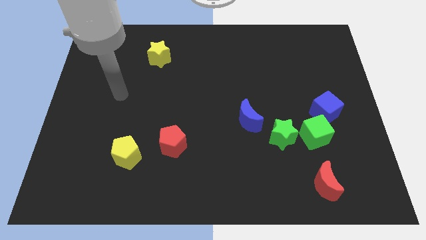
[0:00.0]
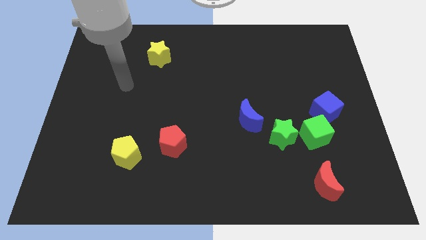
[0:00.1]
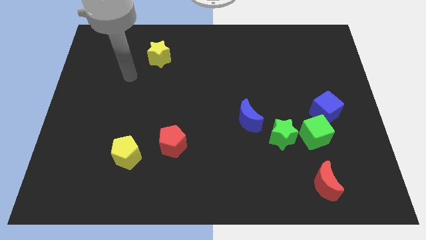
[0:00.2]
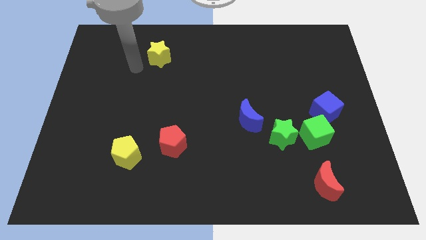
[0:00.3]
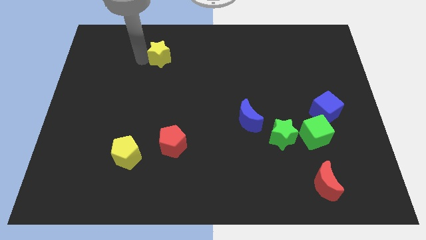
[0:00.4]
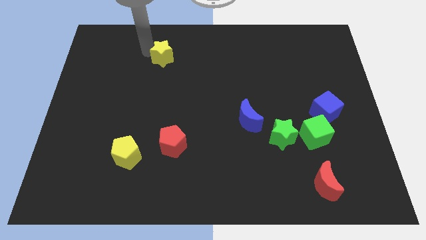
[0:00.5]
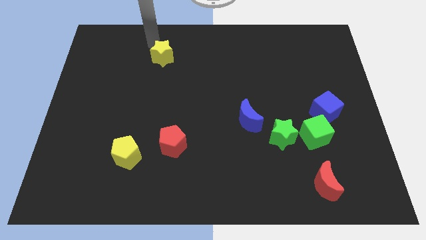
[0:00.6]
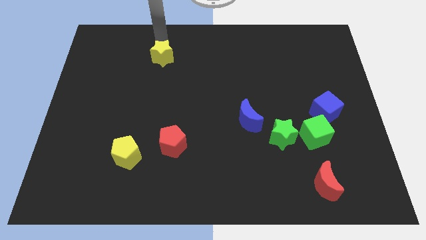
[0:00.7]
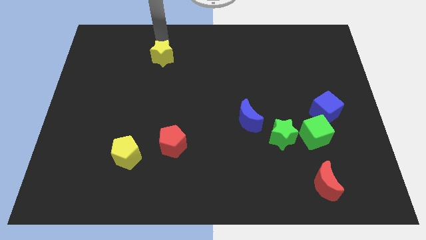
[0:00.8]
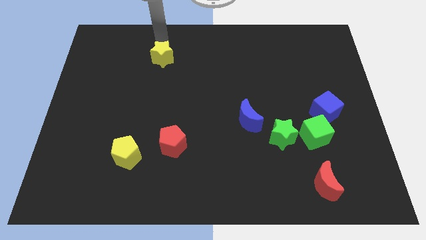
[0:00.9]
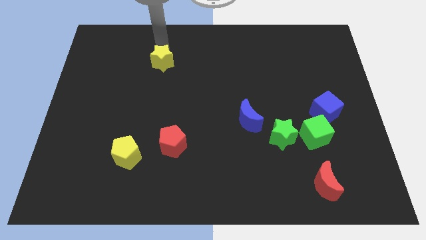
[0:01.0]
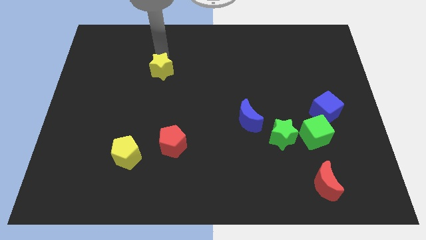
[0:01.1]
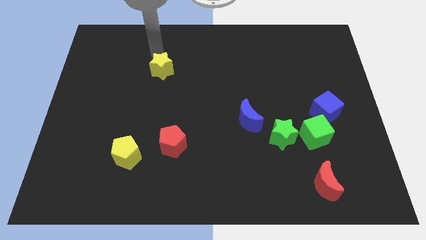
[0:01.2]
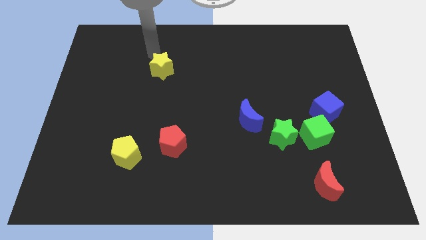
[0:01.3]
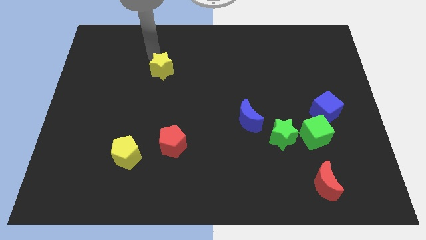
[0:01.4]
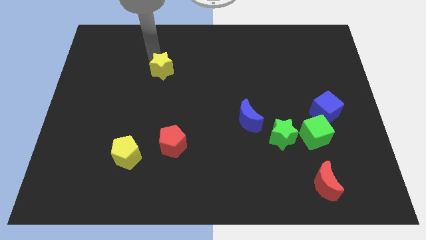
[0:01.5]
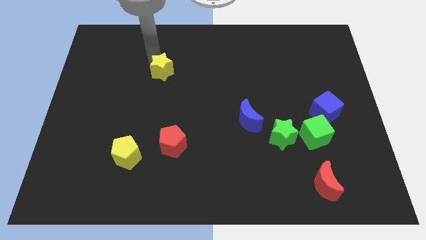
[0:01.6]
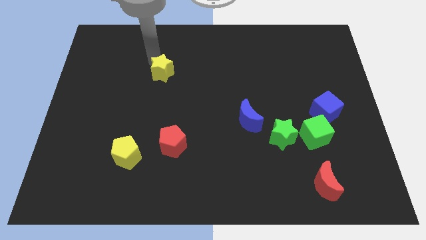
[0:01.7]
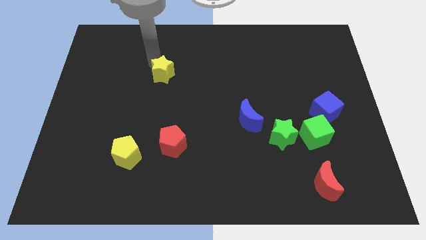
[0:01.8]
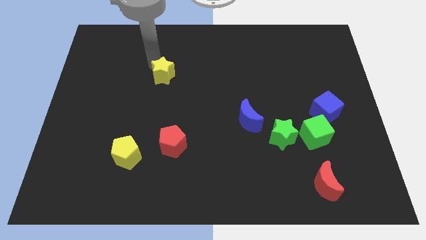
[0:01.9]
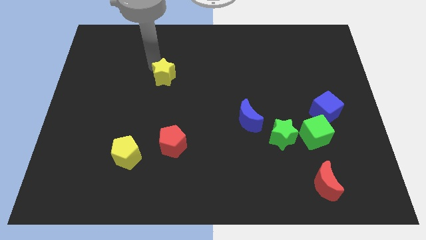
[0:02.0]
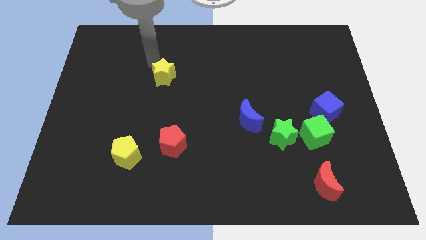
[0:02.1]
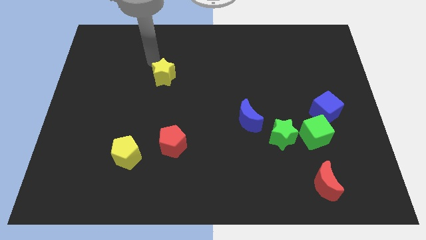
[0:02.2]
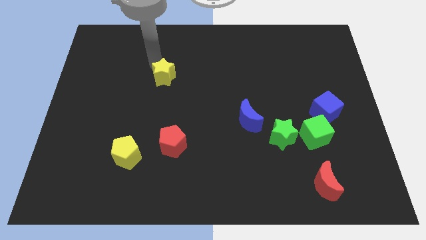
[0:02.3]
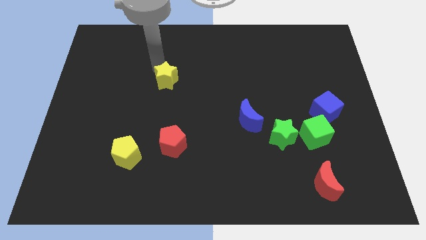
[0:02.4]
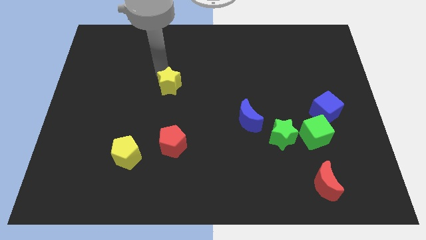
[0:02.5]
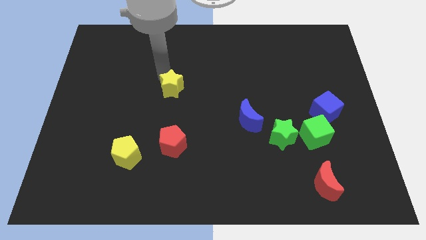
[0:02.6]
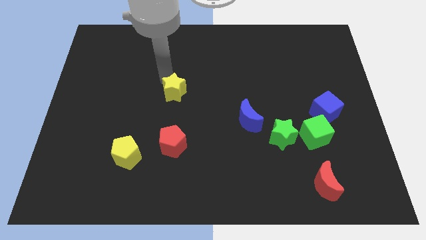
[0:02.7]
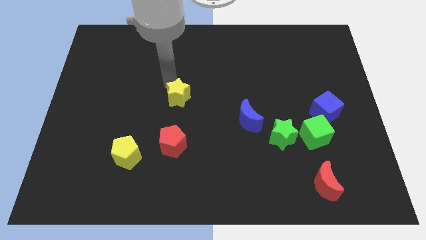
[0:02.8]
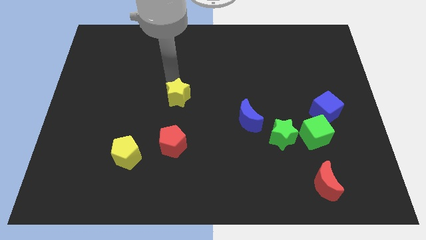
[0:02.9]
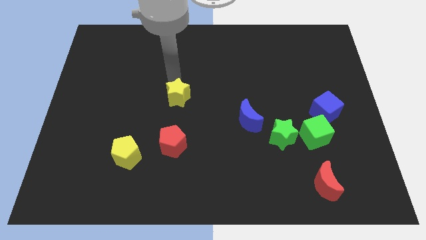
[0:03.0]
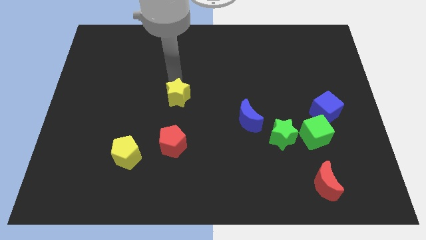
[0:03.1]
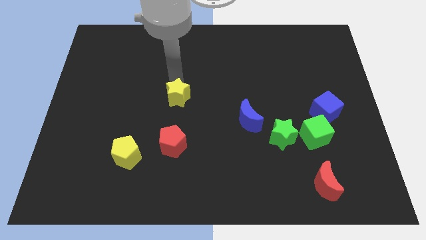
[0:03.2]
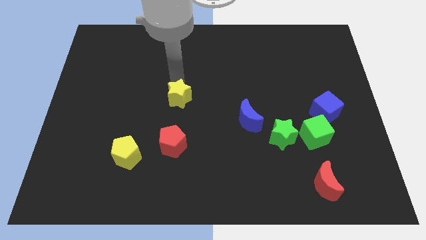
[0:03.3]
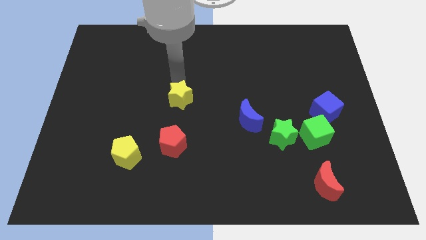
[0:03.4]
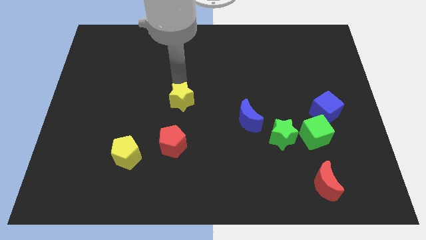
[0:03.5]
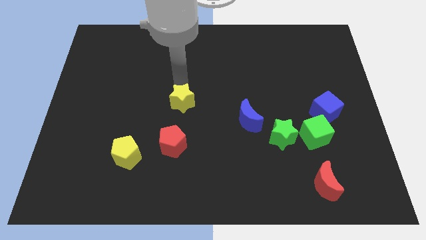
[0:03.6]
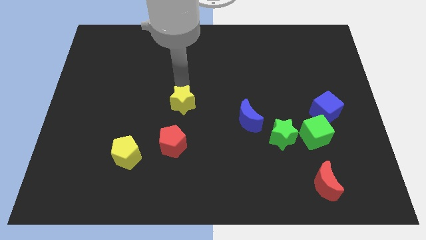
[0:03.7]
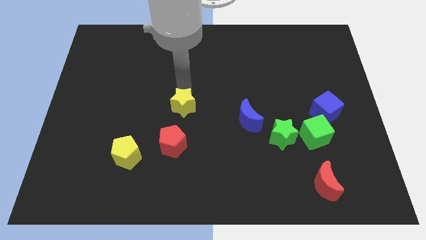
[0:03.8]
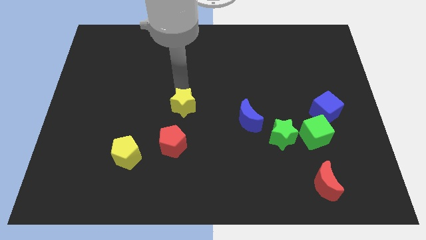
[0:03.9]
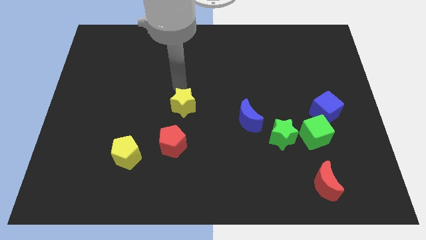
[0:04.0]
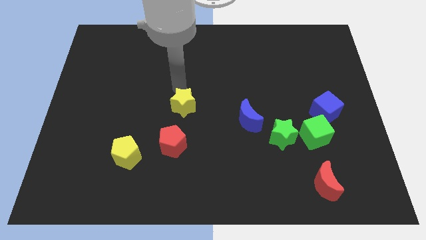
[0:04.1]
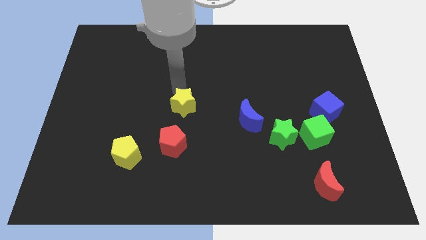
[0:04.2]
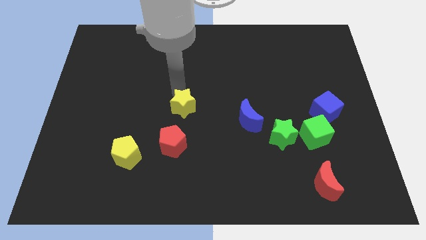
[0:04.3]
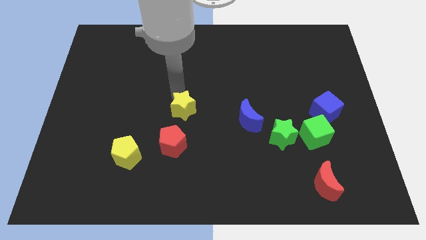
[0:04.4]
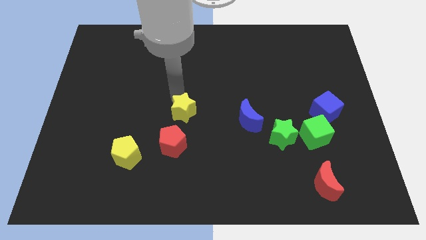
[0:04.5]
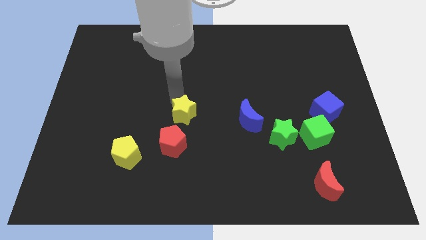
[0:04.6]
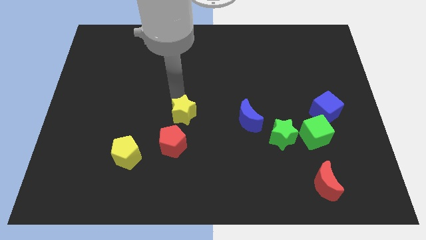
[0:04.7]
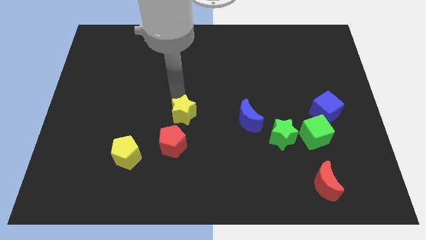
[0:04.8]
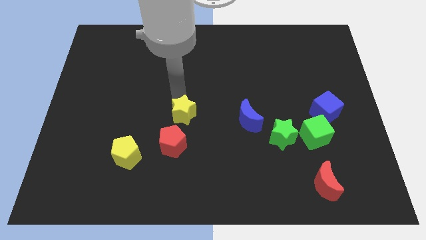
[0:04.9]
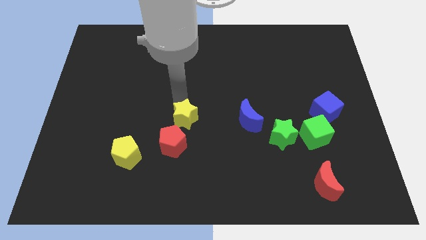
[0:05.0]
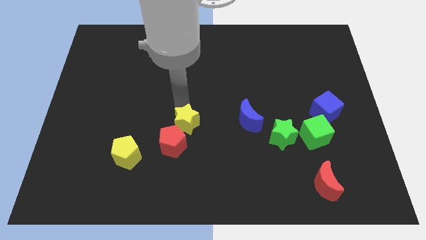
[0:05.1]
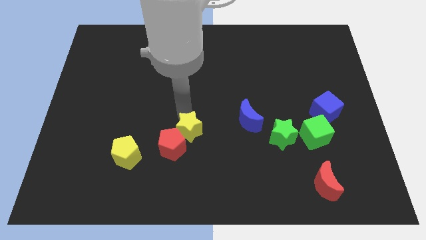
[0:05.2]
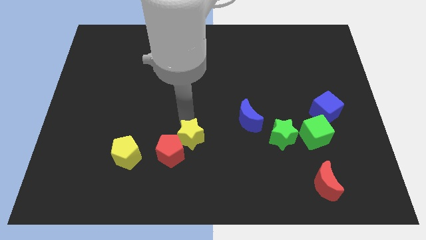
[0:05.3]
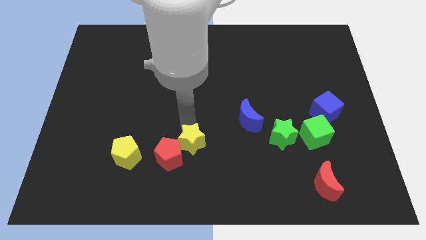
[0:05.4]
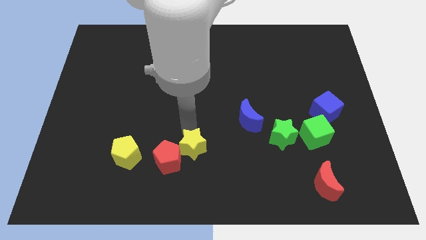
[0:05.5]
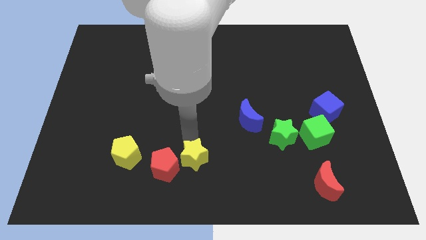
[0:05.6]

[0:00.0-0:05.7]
slide the yellow star to the bottom side

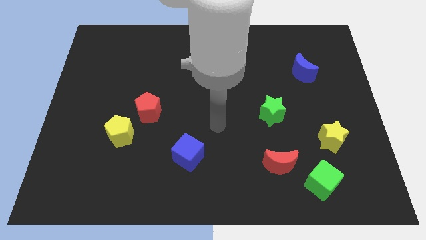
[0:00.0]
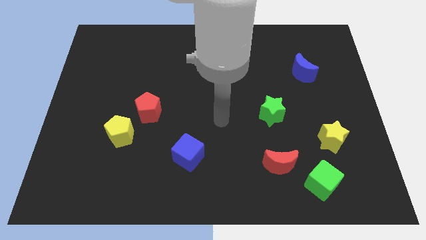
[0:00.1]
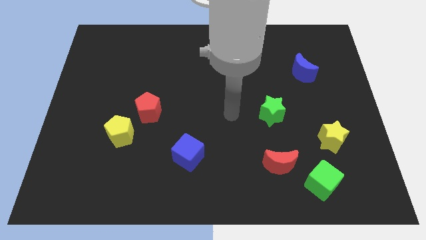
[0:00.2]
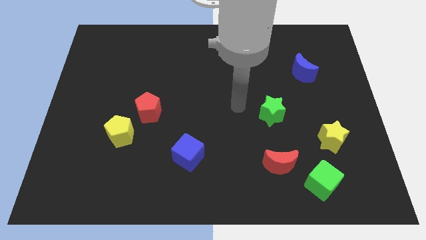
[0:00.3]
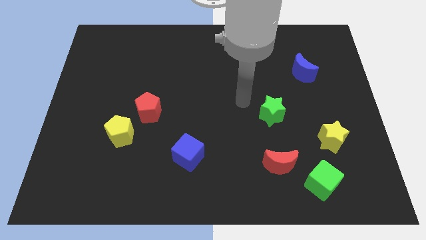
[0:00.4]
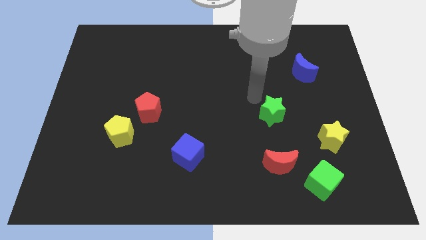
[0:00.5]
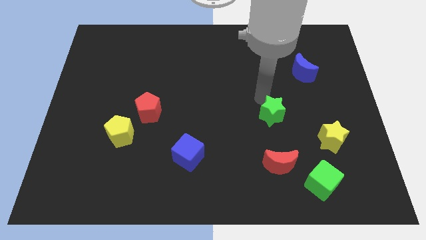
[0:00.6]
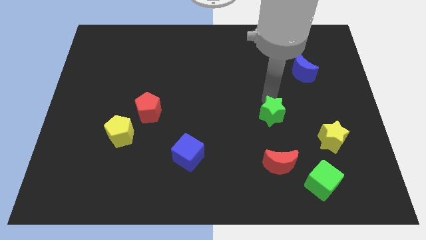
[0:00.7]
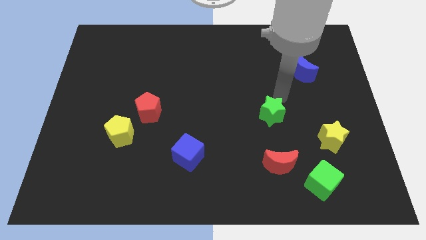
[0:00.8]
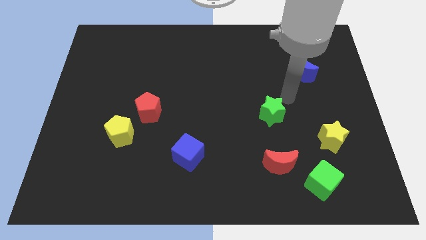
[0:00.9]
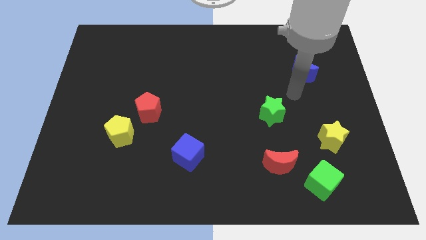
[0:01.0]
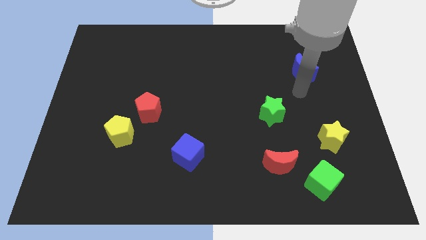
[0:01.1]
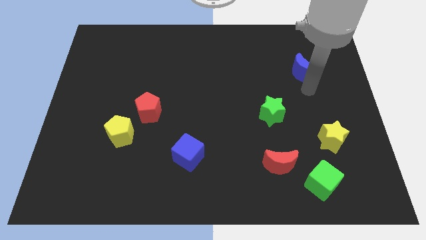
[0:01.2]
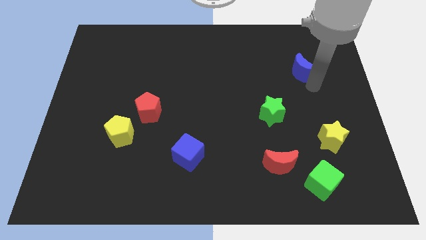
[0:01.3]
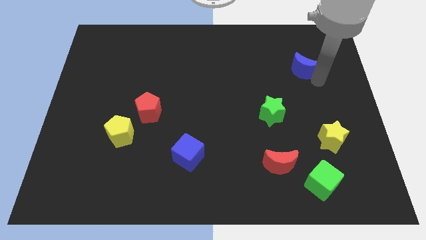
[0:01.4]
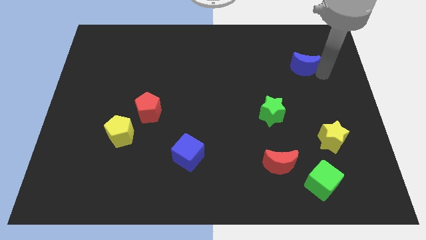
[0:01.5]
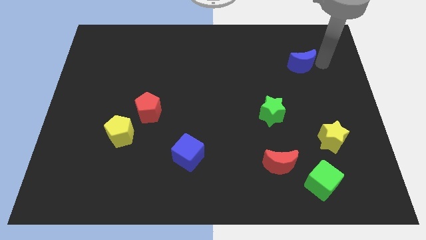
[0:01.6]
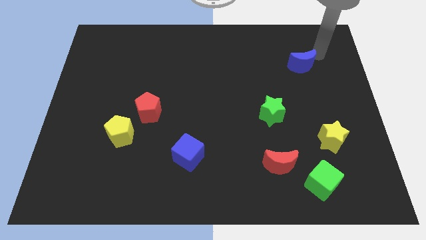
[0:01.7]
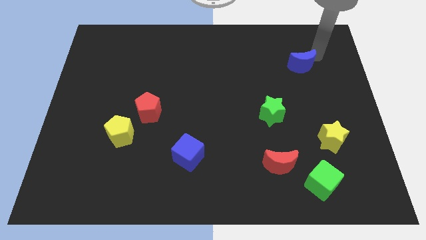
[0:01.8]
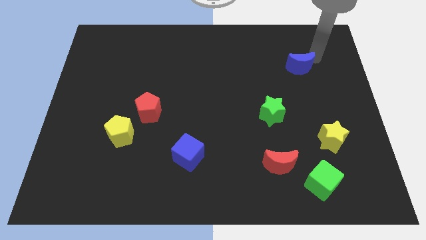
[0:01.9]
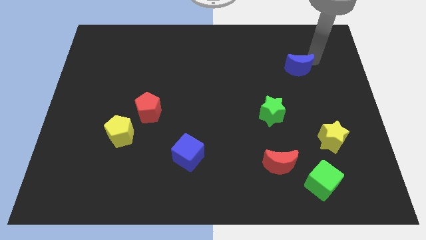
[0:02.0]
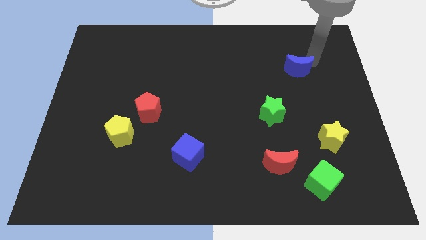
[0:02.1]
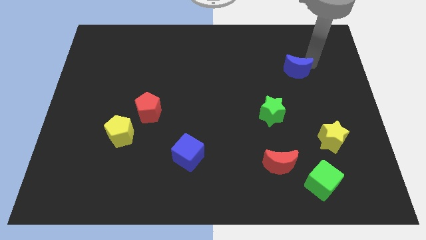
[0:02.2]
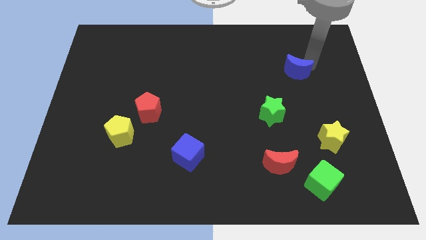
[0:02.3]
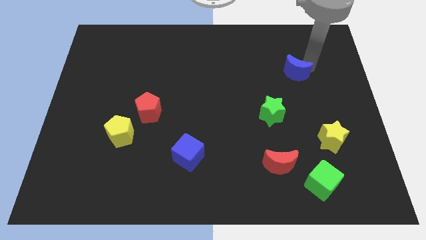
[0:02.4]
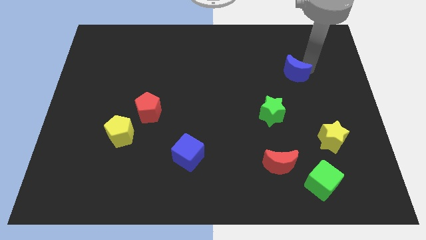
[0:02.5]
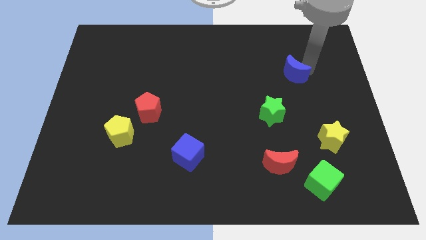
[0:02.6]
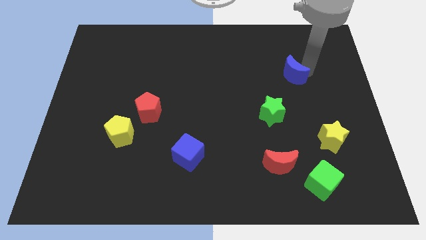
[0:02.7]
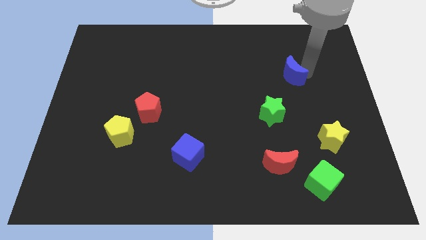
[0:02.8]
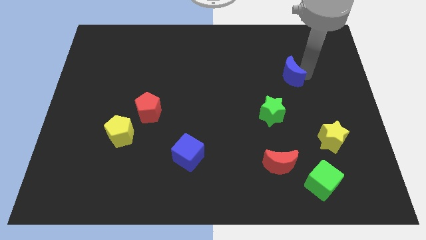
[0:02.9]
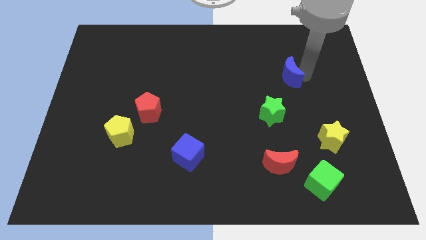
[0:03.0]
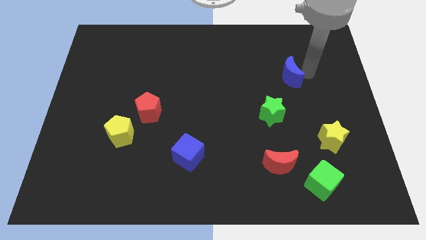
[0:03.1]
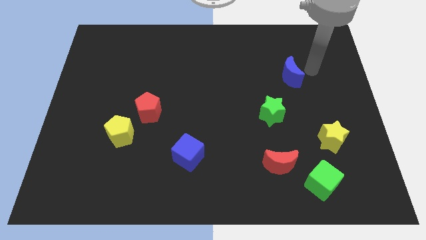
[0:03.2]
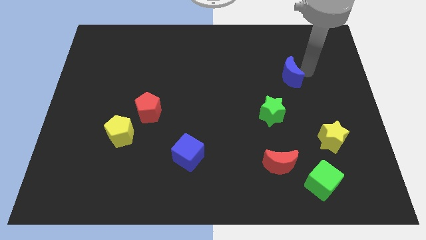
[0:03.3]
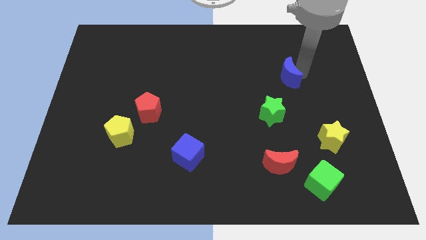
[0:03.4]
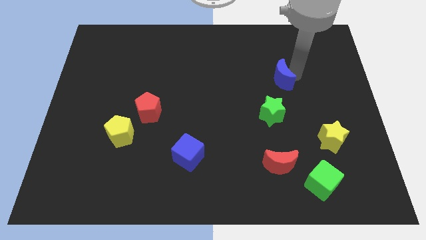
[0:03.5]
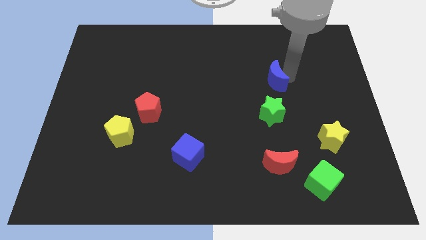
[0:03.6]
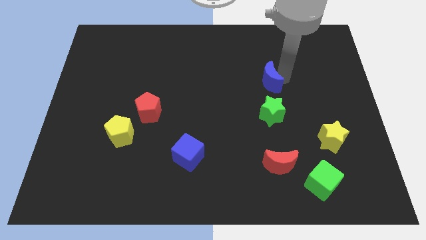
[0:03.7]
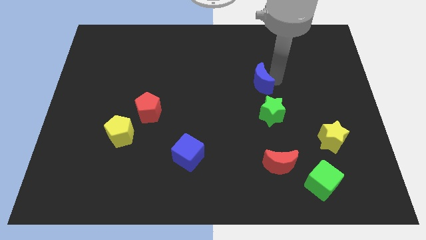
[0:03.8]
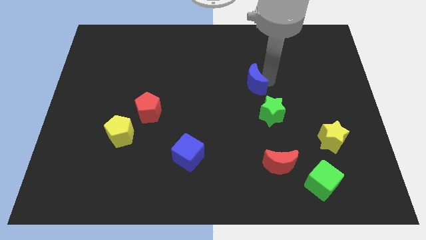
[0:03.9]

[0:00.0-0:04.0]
slide the blue moon to the middle of the board
